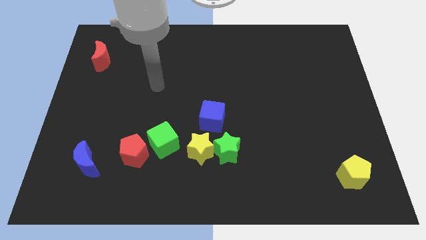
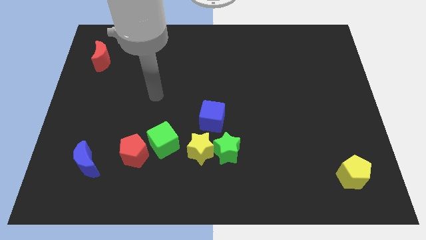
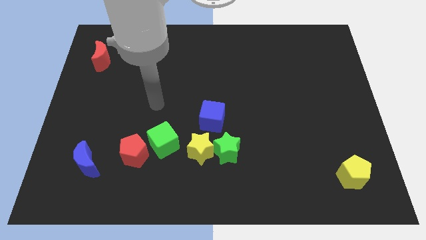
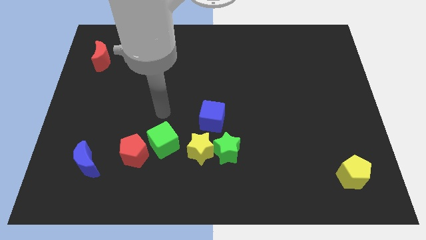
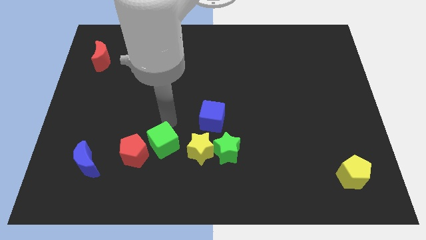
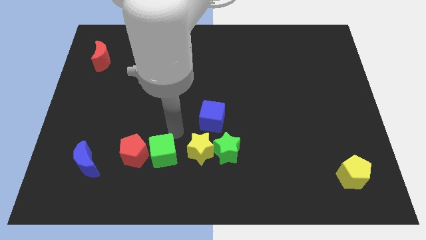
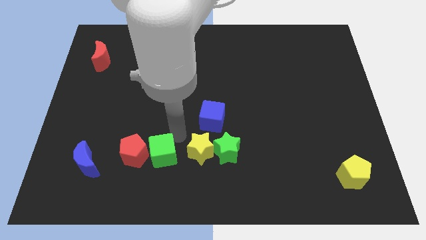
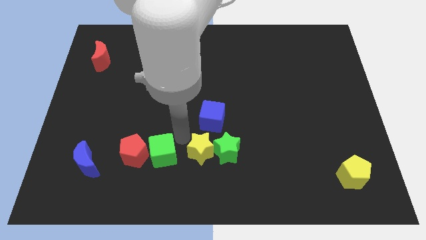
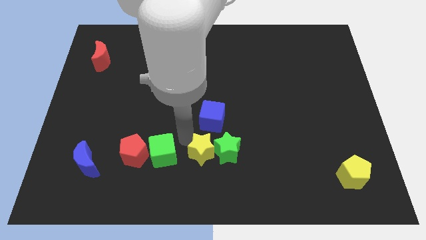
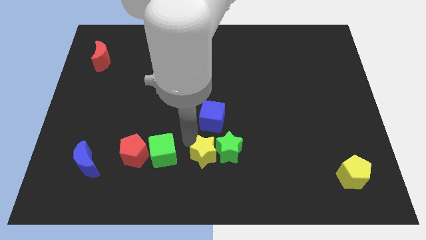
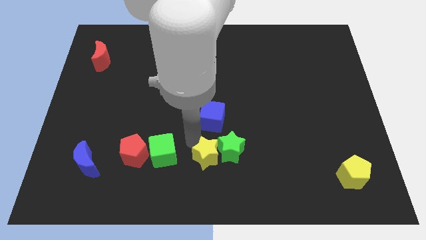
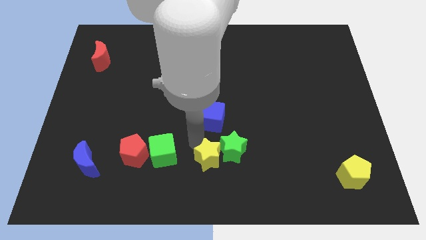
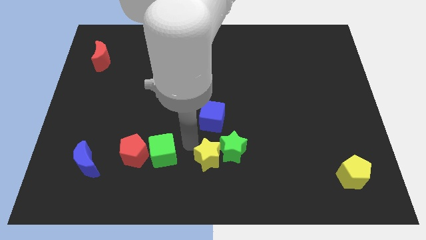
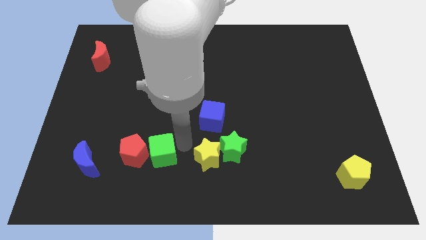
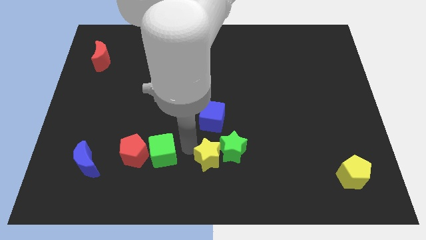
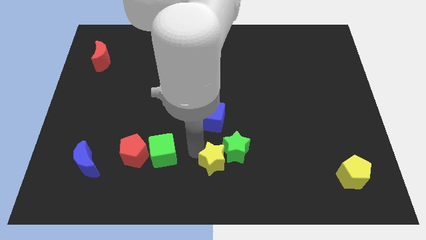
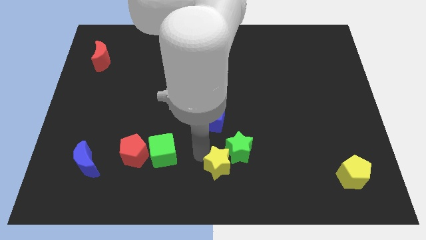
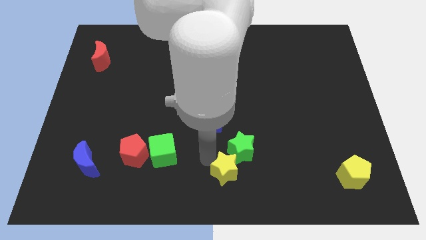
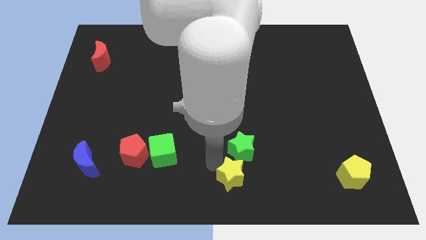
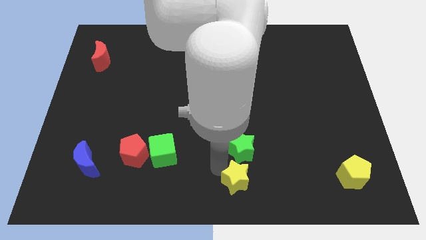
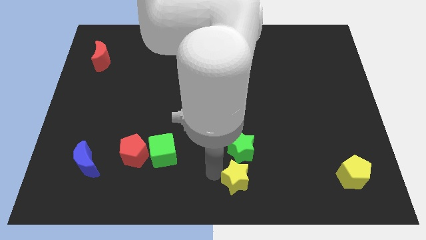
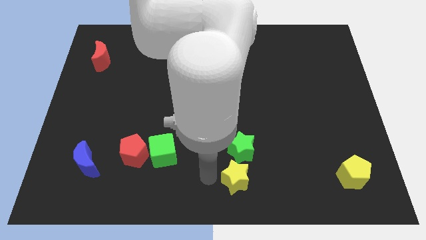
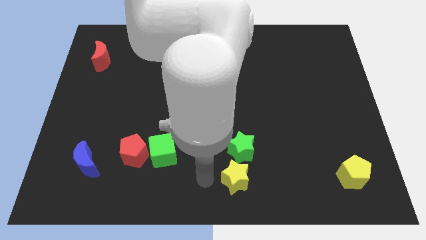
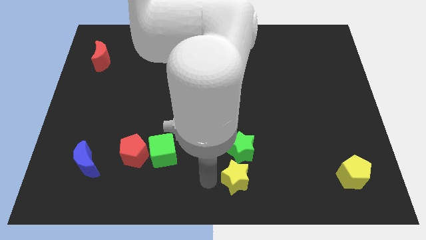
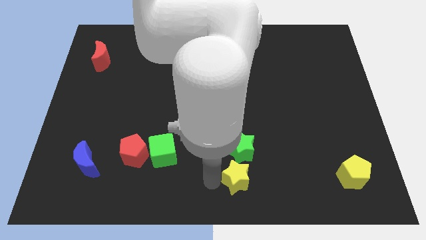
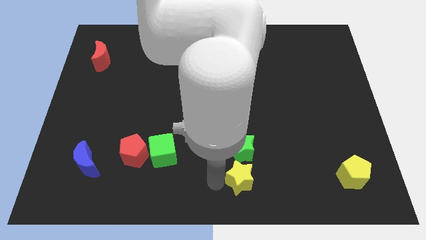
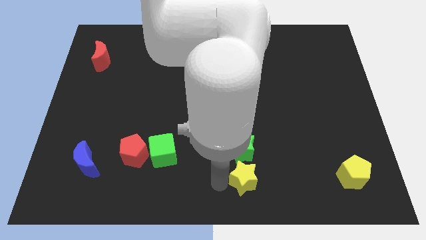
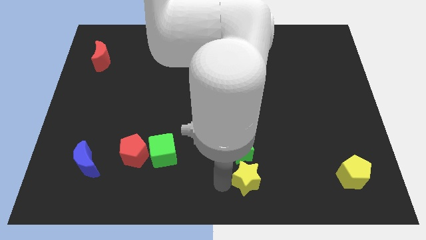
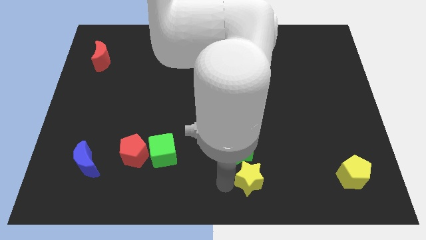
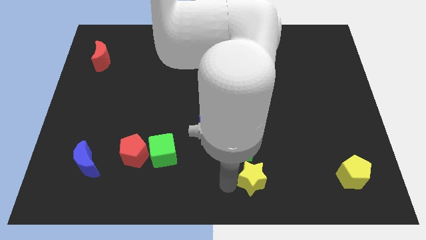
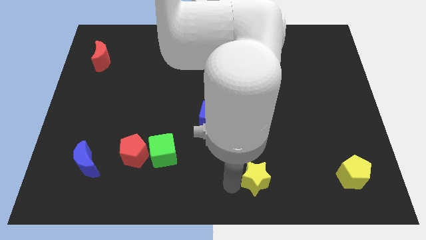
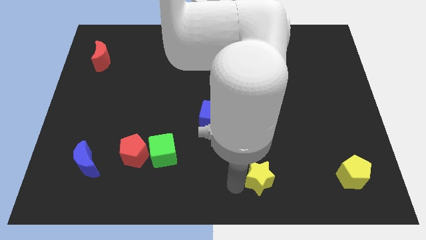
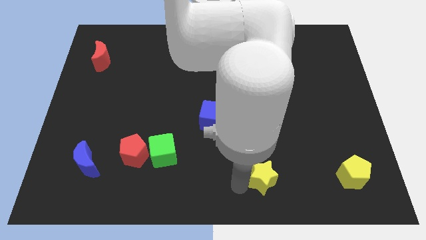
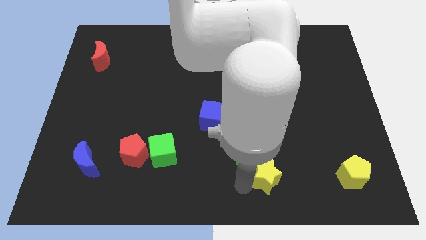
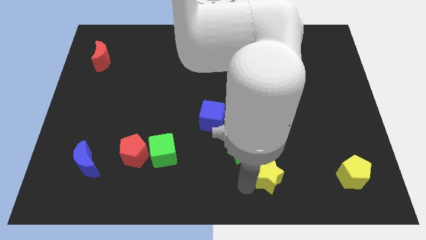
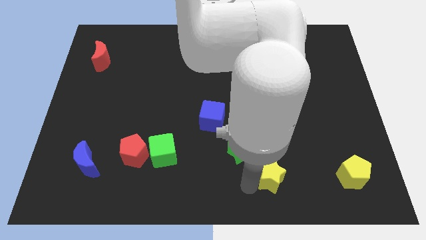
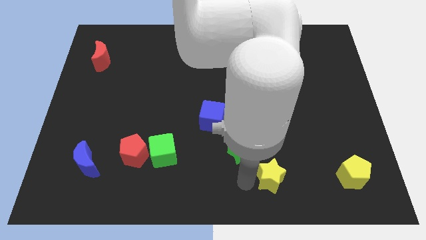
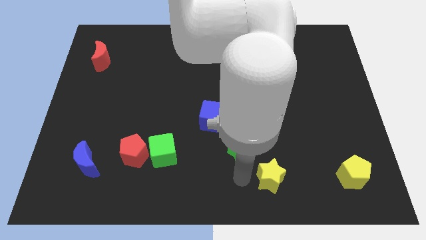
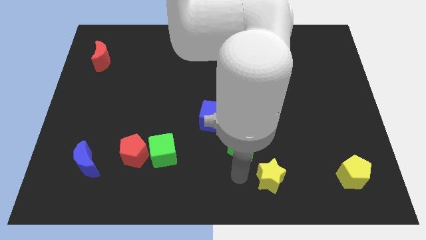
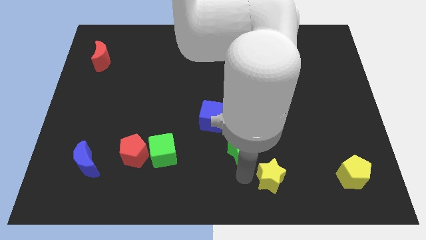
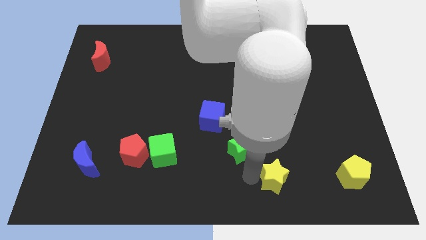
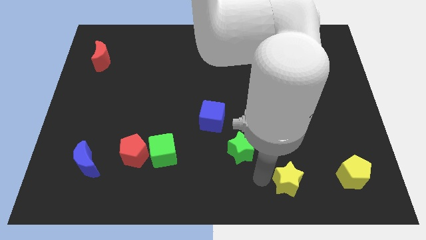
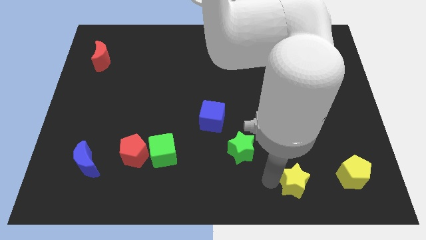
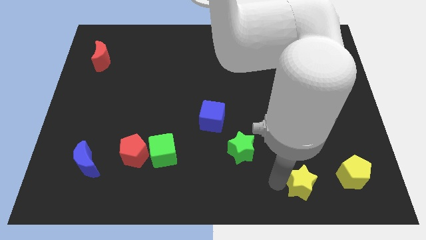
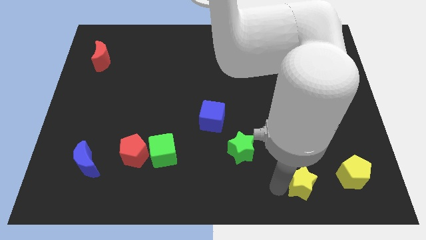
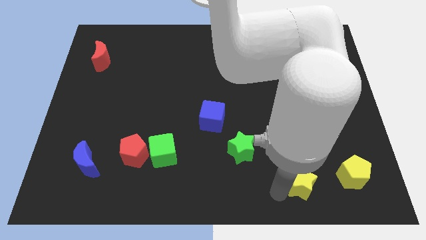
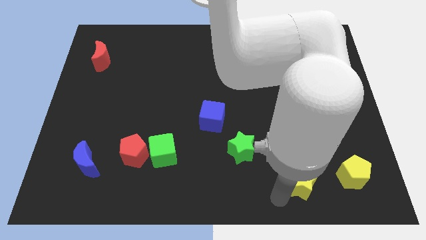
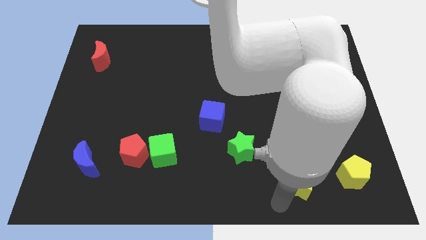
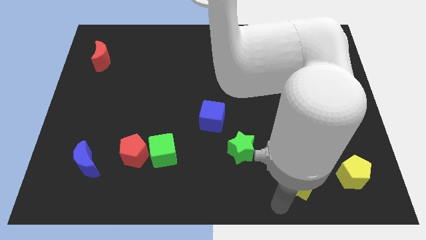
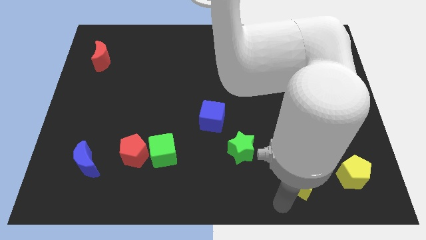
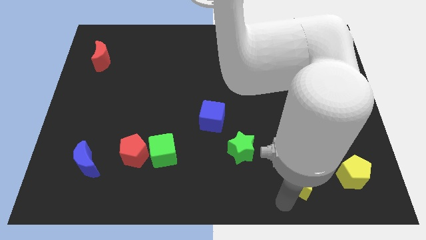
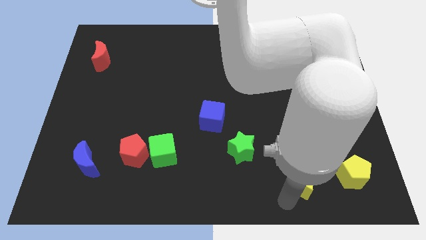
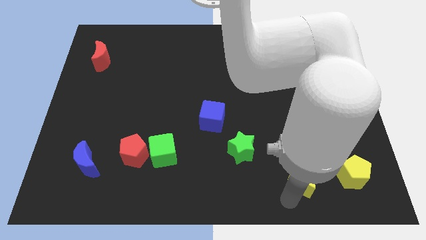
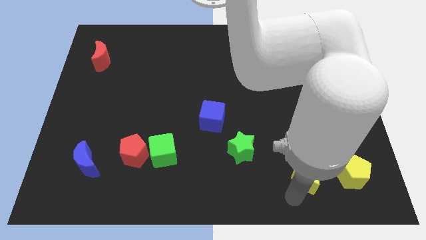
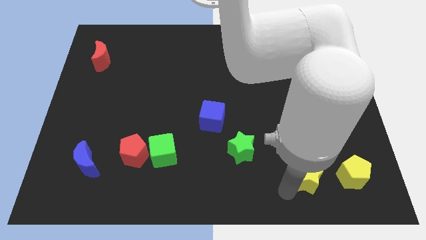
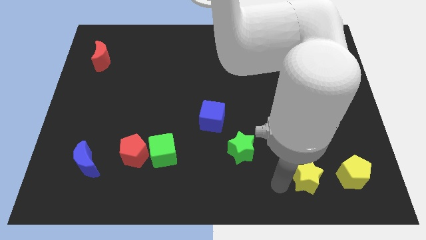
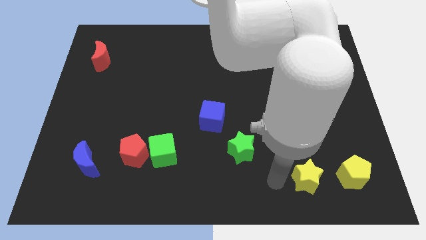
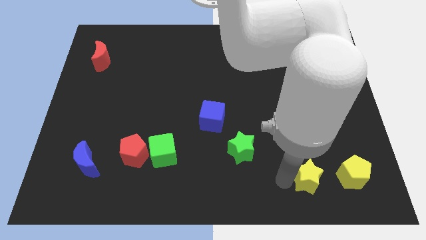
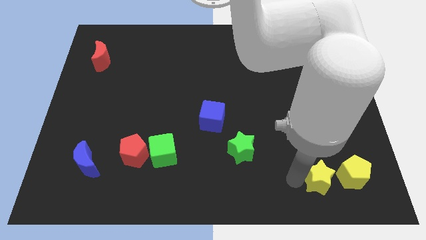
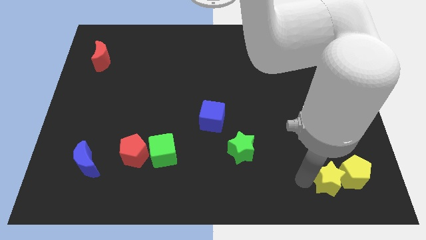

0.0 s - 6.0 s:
push the yellow star to the yellow pentagon

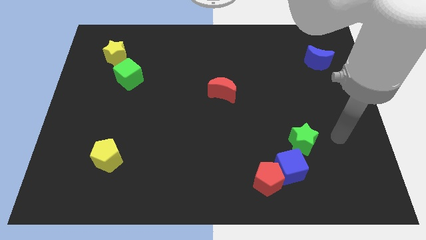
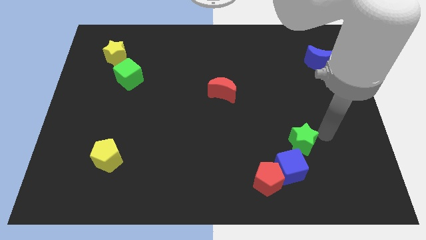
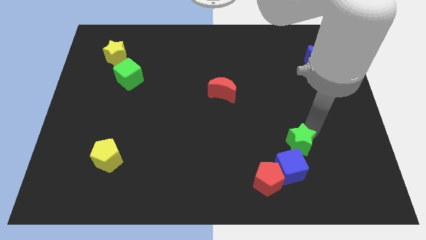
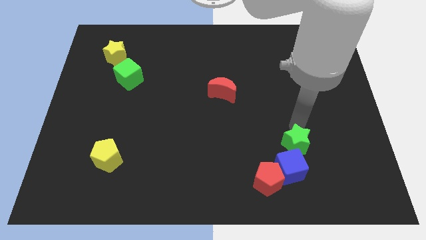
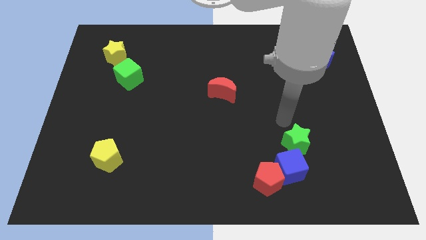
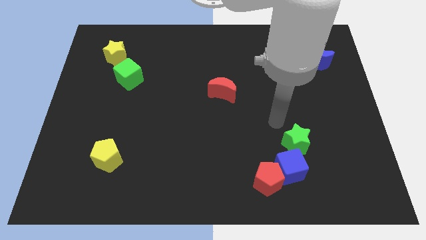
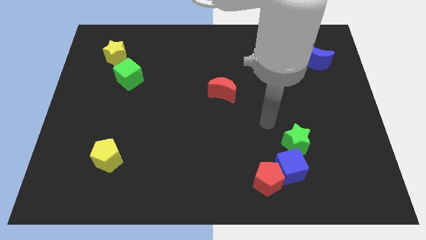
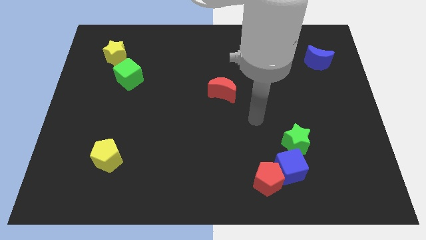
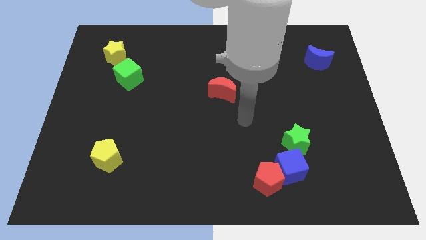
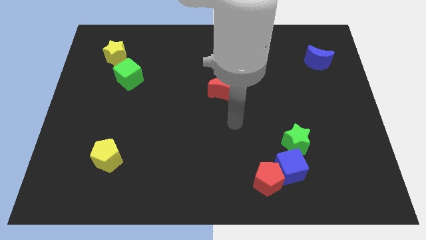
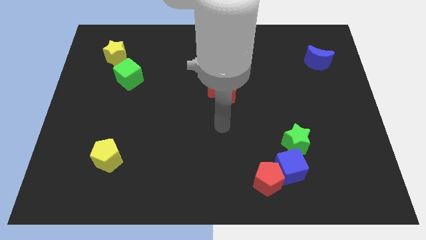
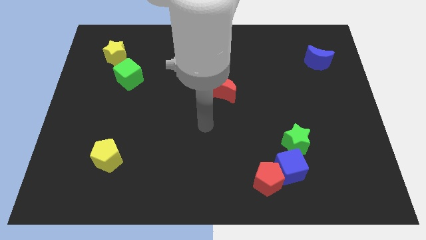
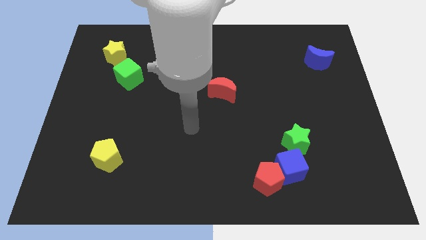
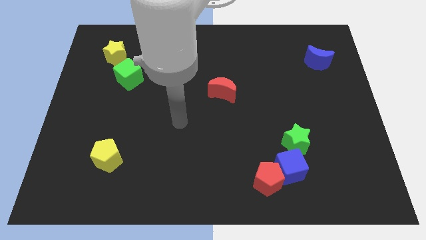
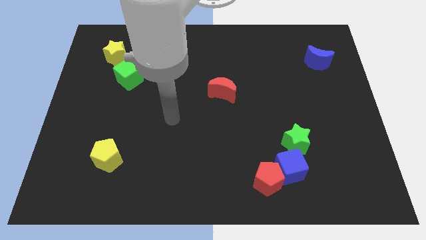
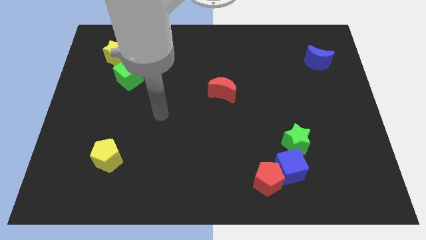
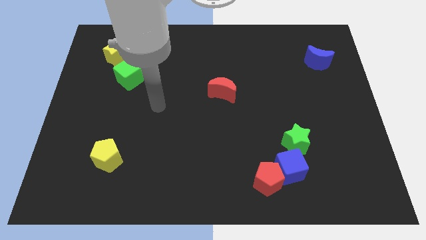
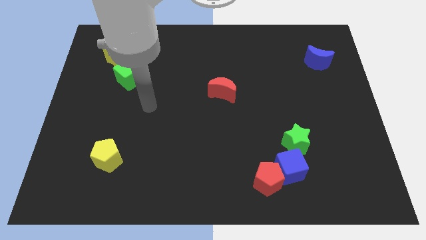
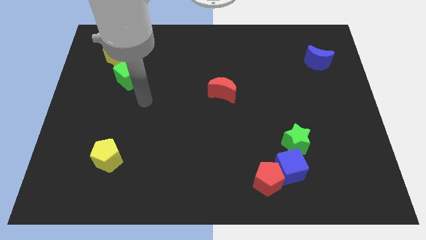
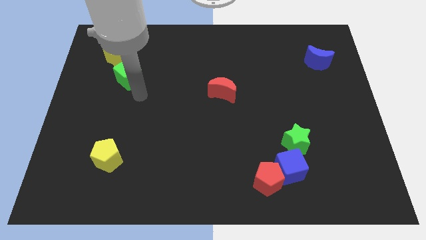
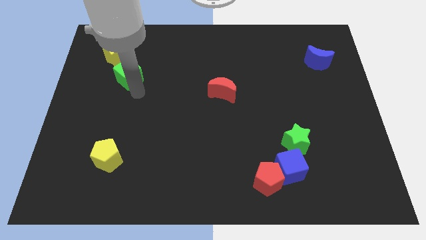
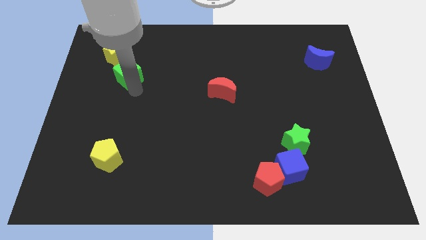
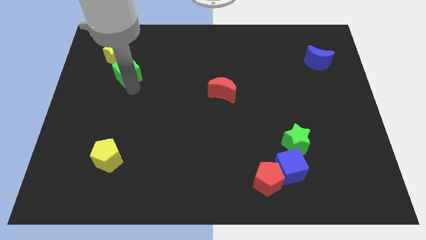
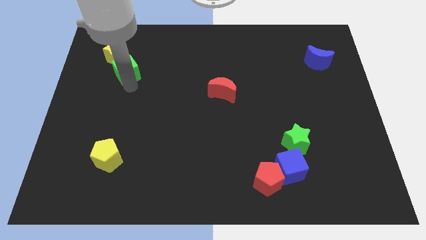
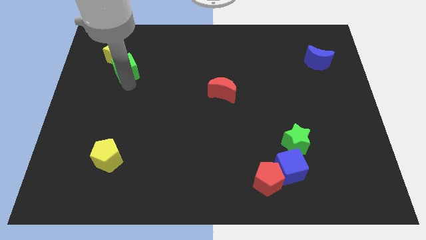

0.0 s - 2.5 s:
push the green cube towards the yellow star
